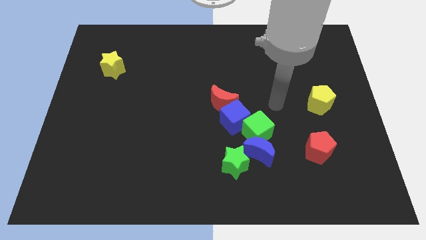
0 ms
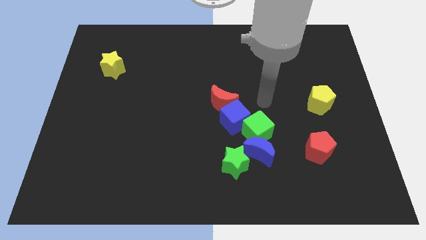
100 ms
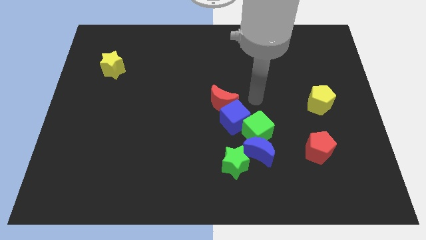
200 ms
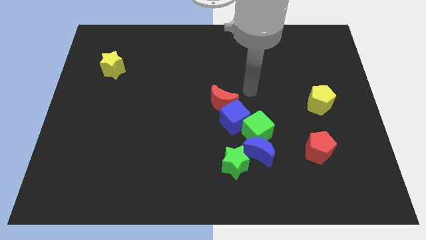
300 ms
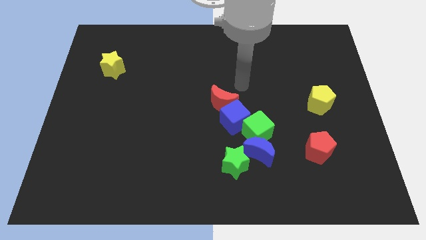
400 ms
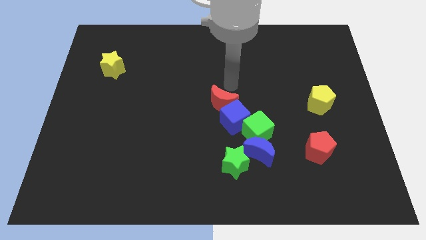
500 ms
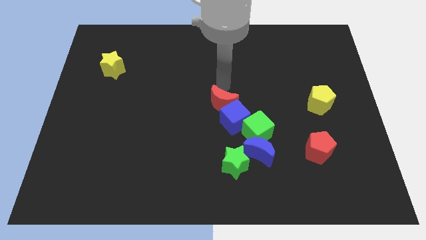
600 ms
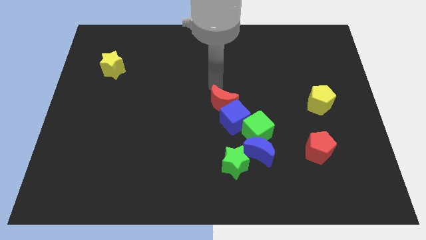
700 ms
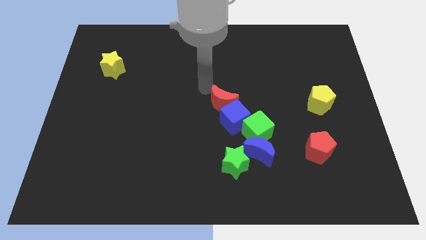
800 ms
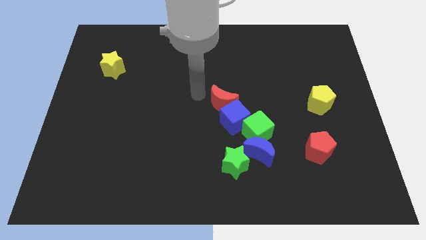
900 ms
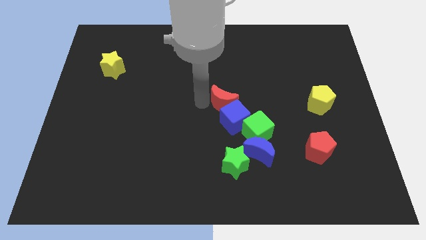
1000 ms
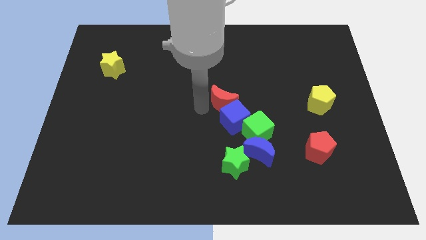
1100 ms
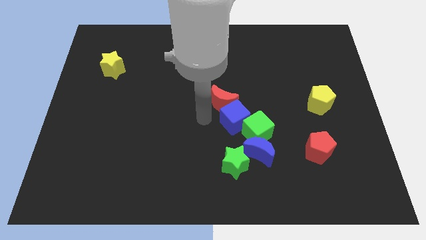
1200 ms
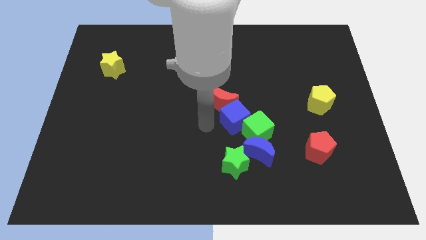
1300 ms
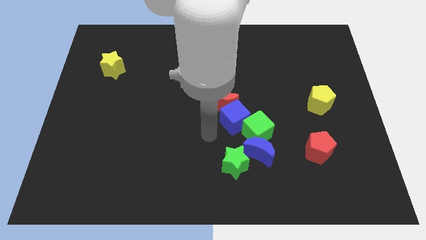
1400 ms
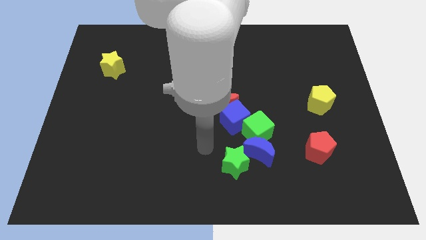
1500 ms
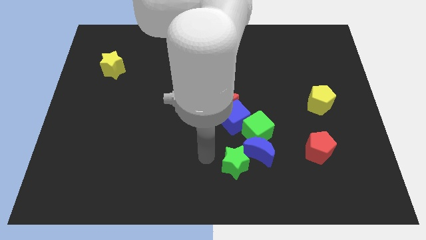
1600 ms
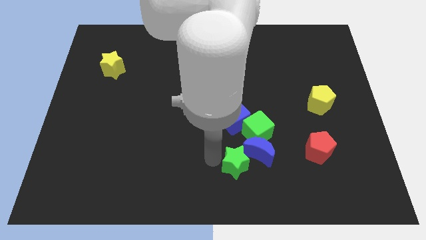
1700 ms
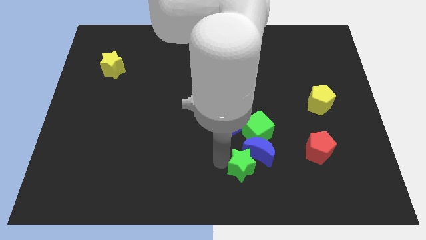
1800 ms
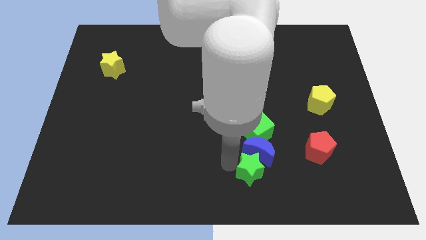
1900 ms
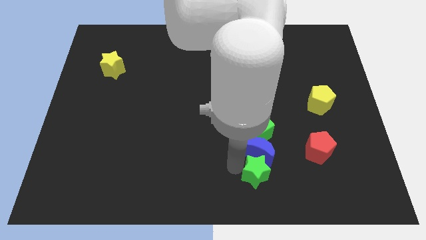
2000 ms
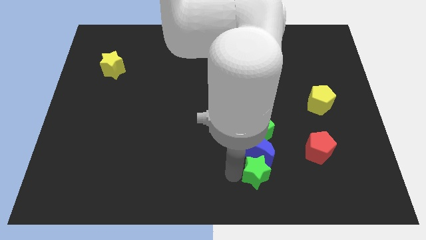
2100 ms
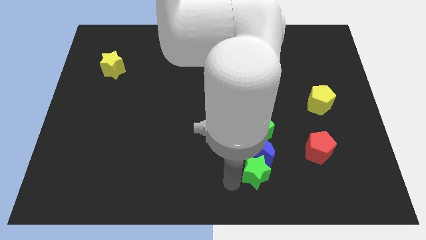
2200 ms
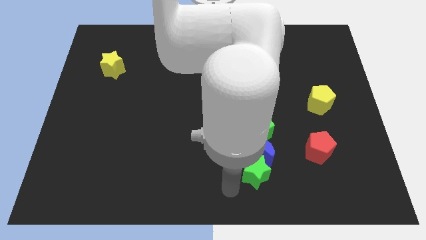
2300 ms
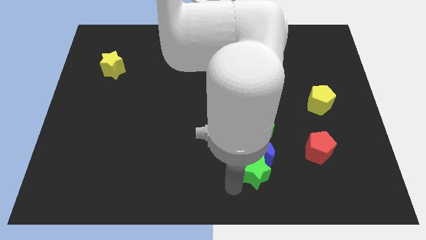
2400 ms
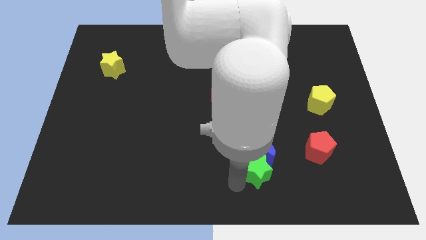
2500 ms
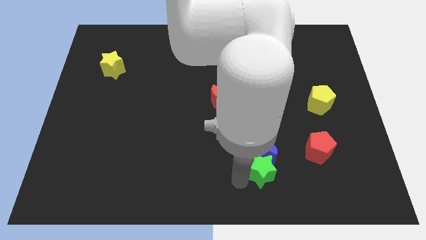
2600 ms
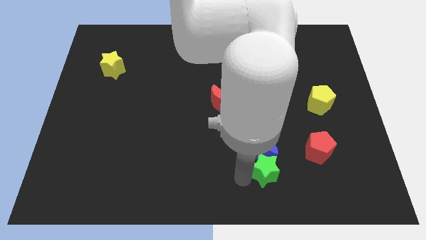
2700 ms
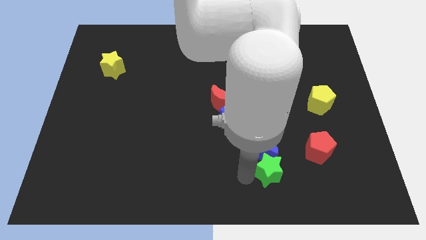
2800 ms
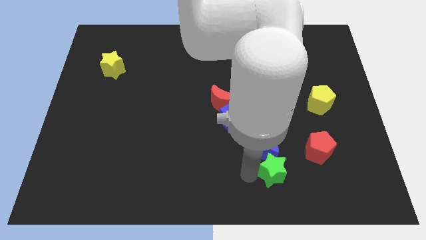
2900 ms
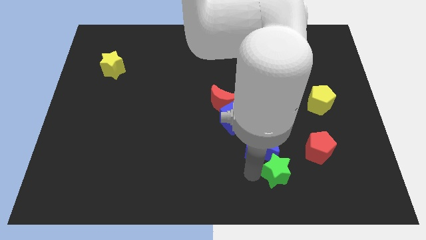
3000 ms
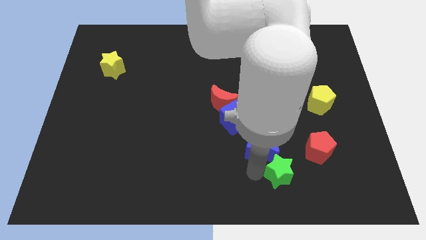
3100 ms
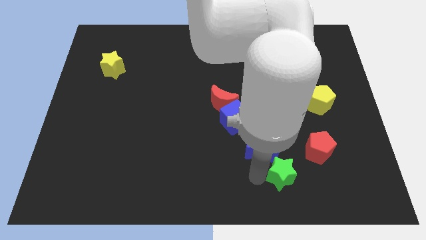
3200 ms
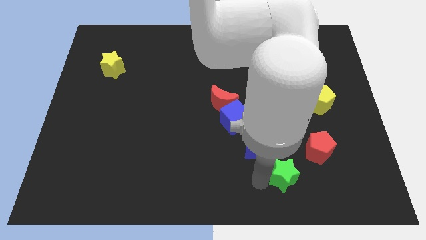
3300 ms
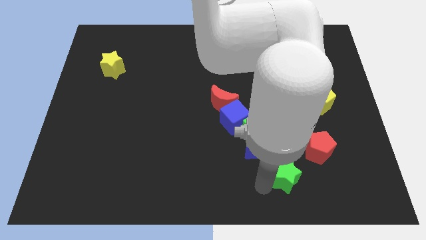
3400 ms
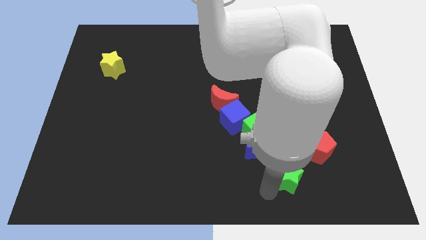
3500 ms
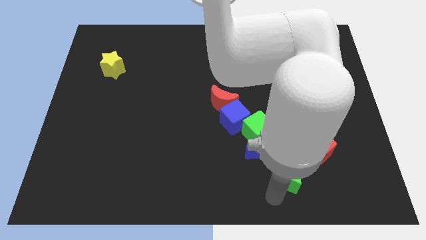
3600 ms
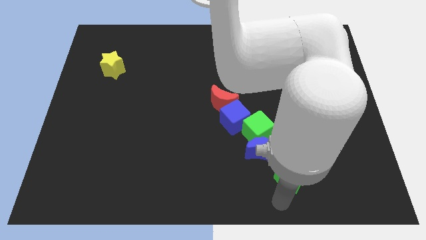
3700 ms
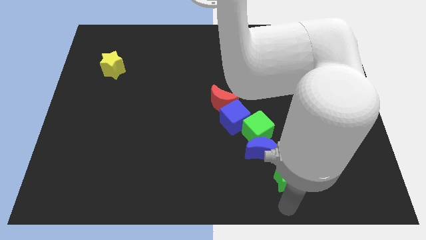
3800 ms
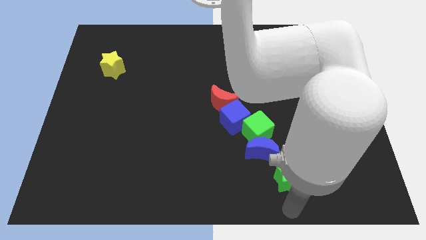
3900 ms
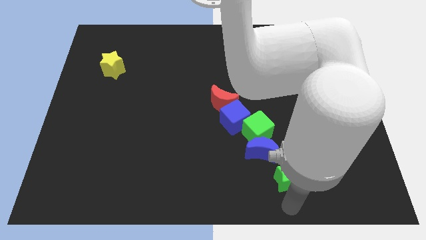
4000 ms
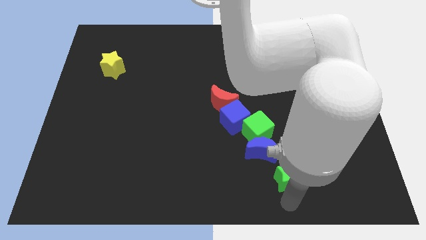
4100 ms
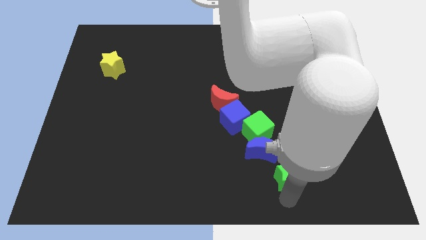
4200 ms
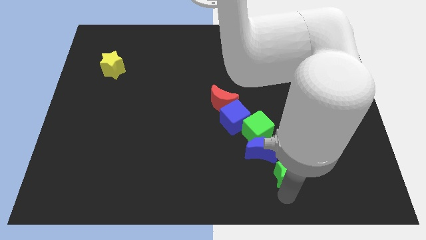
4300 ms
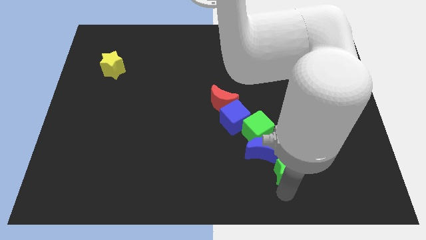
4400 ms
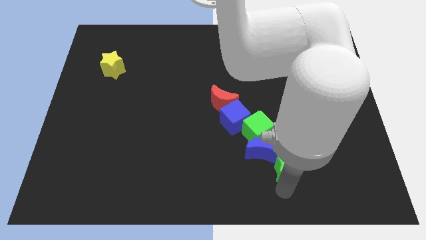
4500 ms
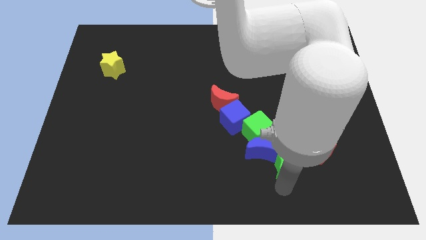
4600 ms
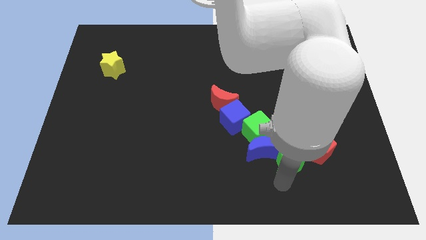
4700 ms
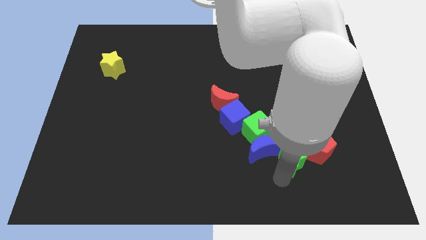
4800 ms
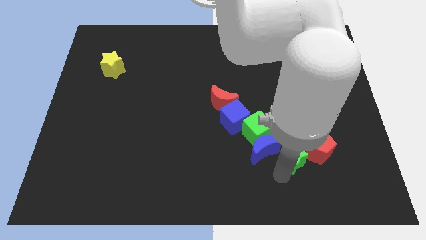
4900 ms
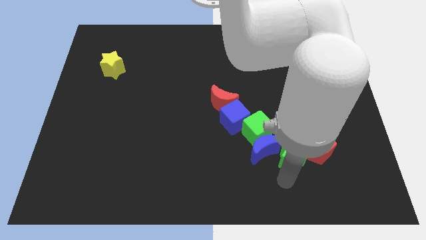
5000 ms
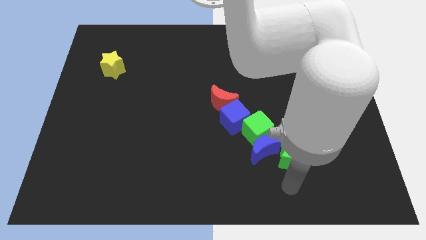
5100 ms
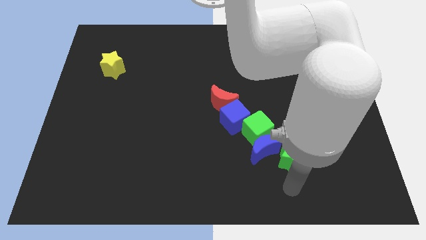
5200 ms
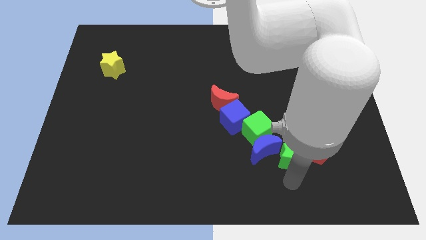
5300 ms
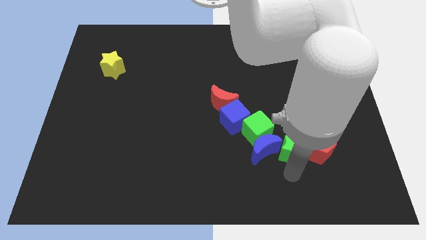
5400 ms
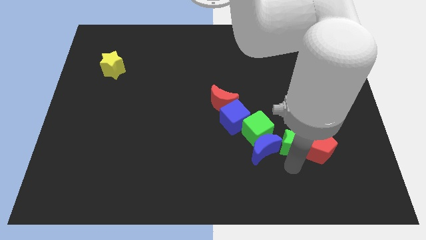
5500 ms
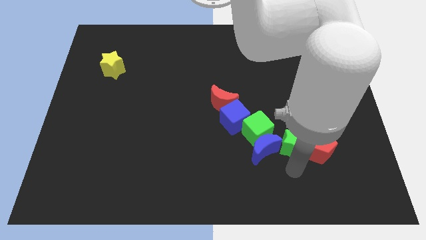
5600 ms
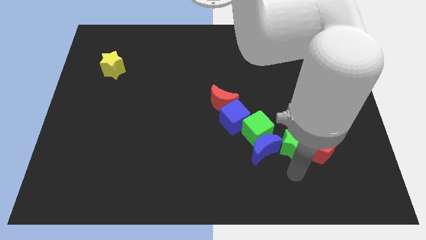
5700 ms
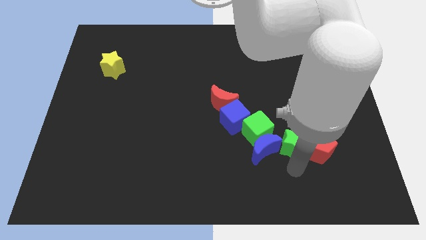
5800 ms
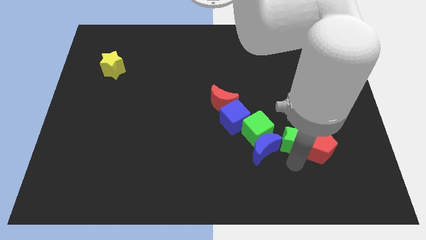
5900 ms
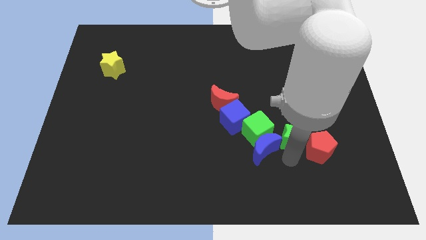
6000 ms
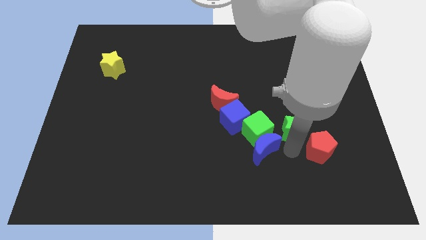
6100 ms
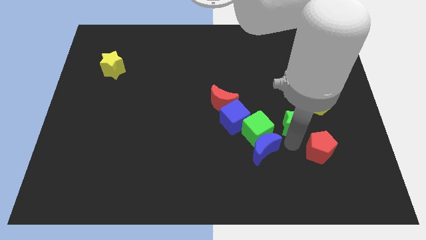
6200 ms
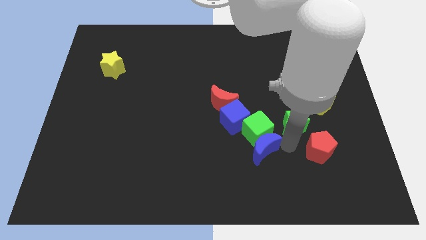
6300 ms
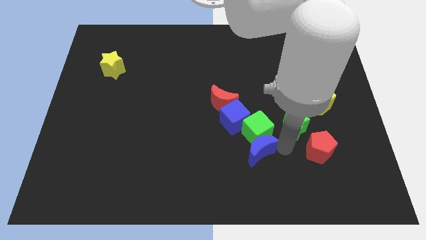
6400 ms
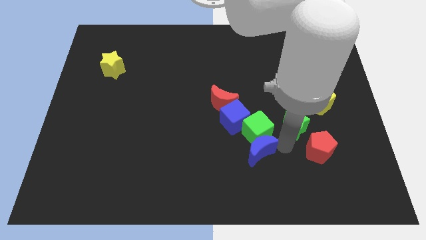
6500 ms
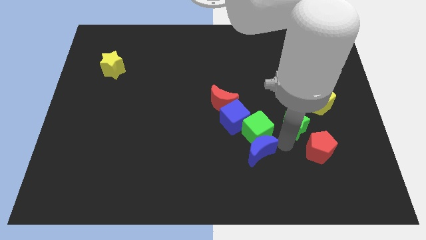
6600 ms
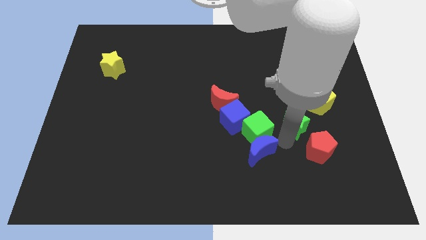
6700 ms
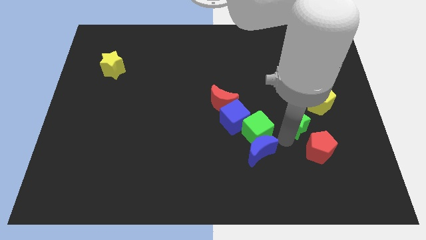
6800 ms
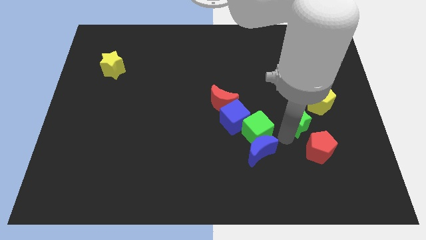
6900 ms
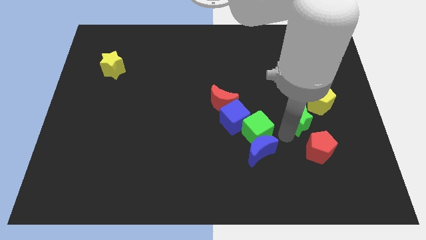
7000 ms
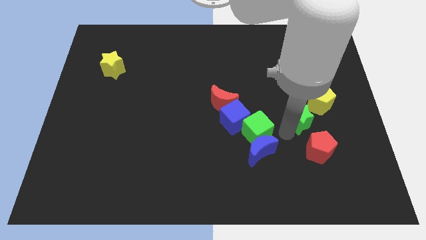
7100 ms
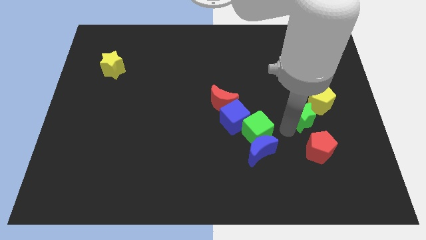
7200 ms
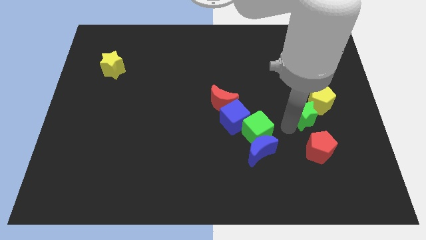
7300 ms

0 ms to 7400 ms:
push the green star towards the yellow pentagon

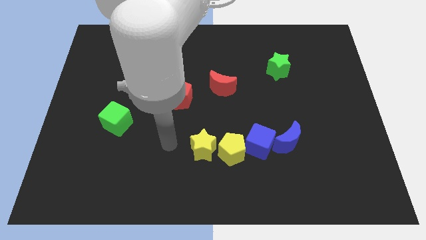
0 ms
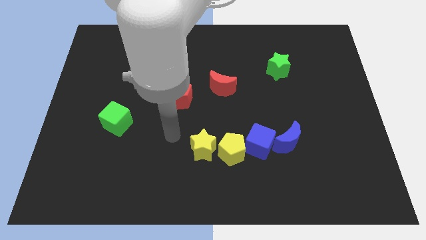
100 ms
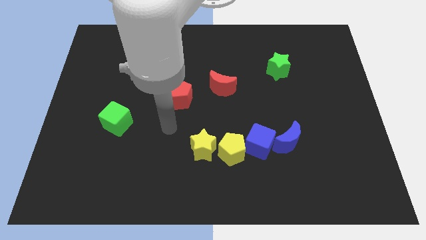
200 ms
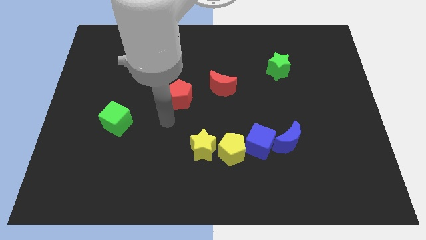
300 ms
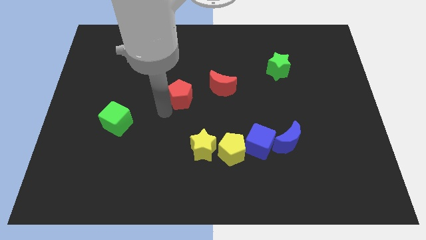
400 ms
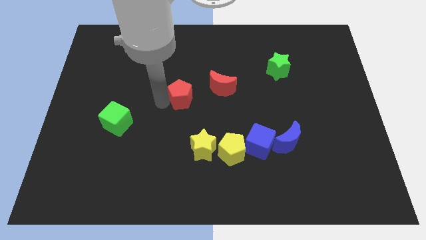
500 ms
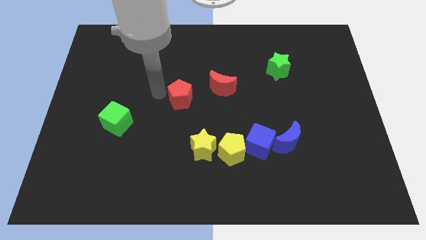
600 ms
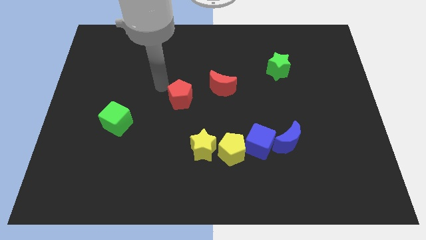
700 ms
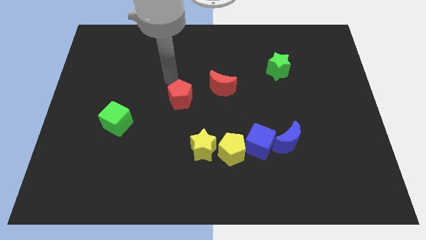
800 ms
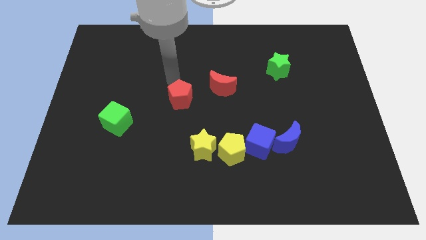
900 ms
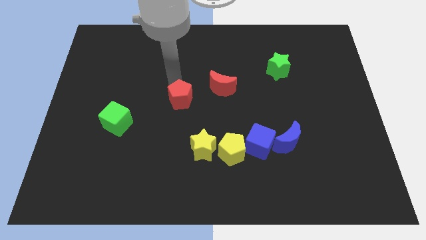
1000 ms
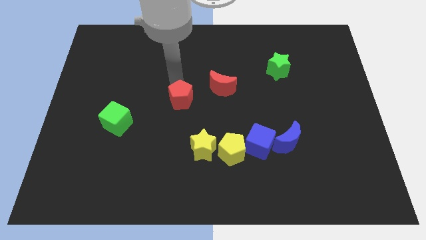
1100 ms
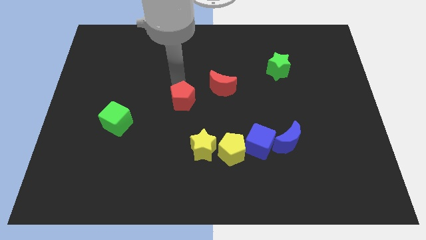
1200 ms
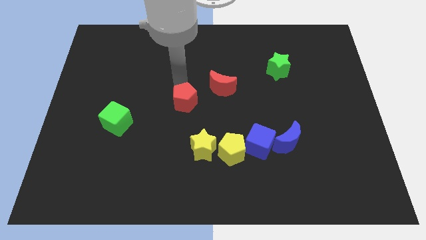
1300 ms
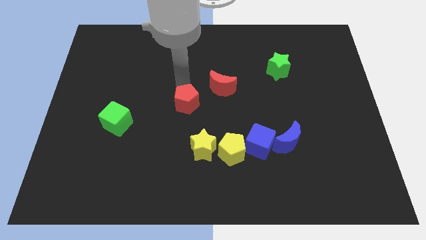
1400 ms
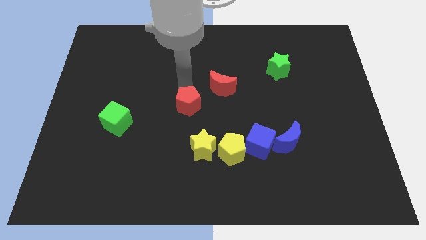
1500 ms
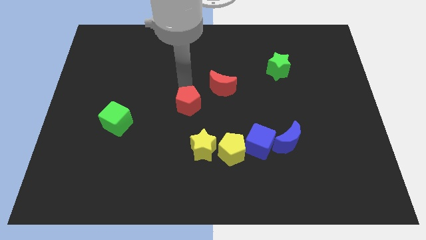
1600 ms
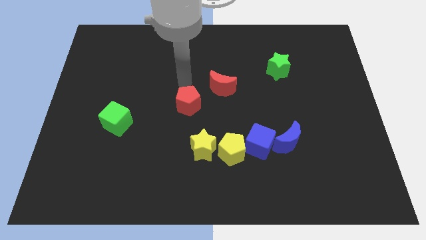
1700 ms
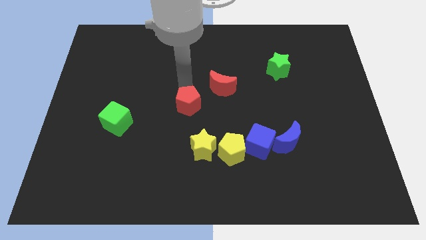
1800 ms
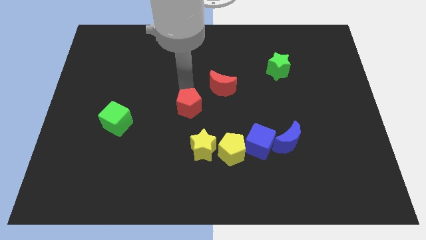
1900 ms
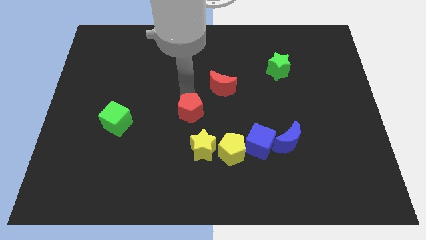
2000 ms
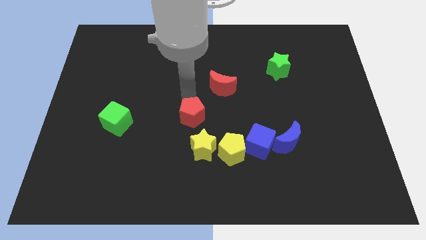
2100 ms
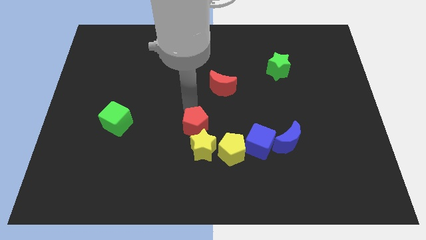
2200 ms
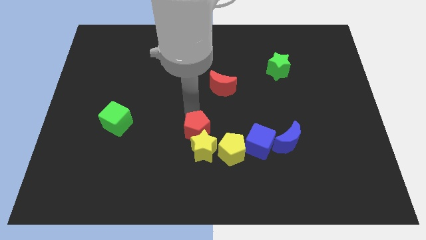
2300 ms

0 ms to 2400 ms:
push the red pentagon to the yellow star
